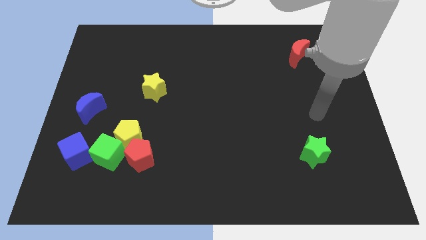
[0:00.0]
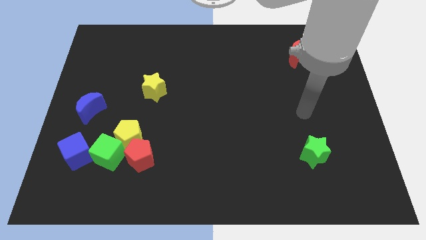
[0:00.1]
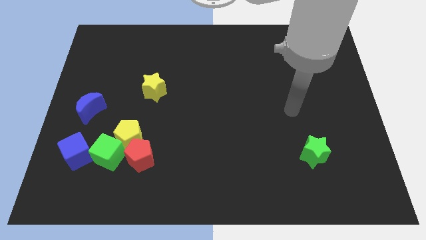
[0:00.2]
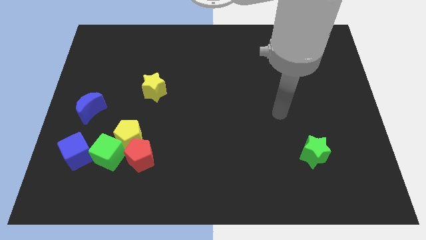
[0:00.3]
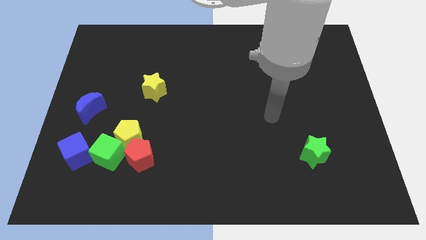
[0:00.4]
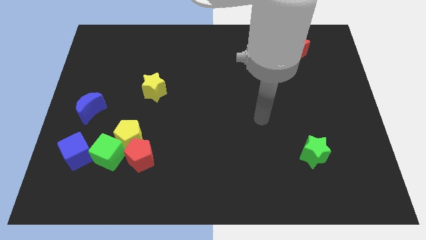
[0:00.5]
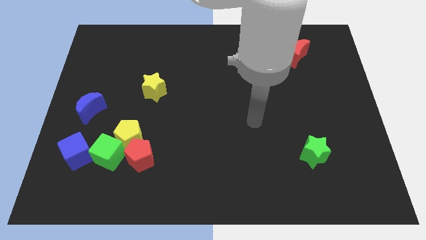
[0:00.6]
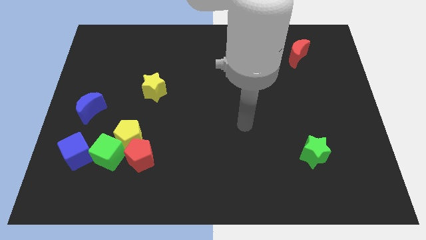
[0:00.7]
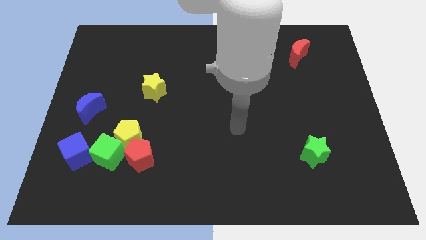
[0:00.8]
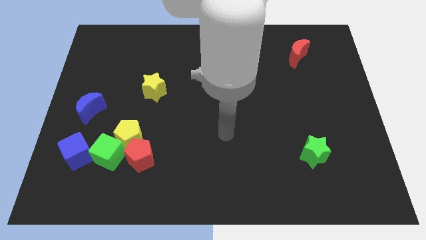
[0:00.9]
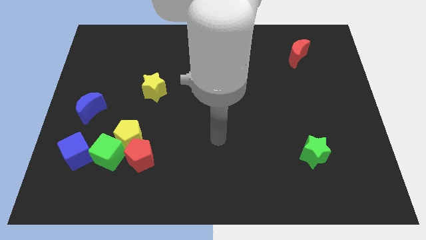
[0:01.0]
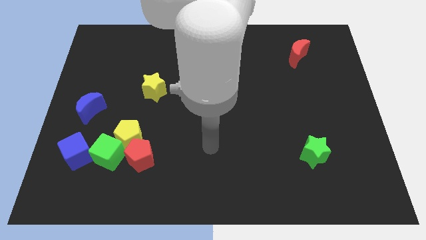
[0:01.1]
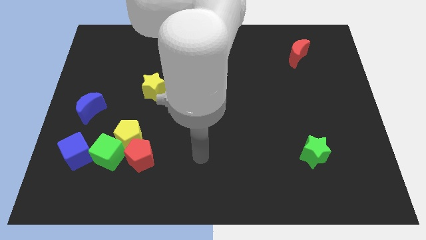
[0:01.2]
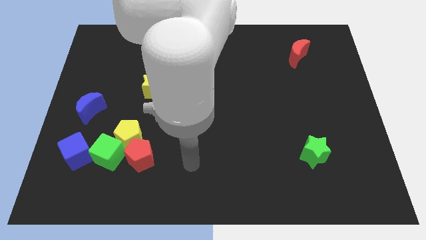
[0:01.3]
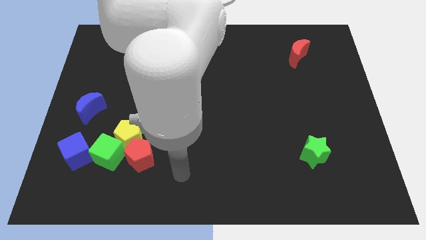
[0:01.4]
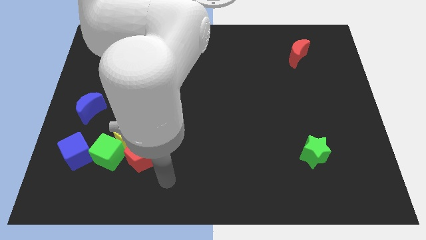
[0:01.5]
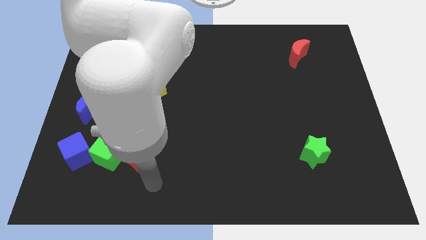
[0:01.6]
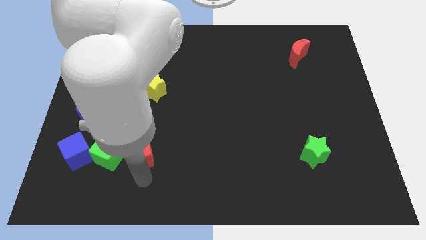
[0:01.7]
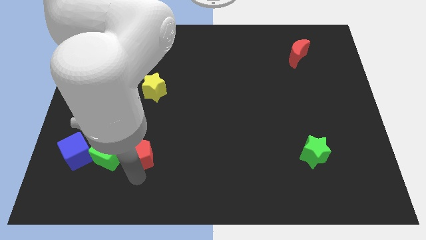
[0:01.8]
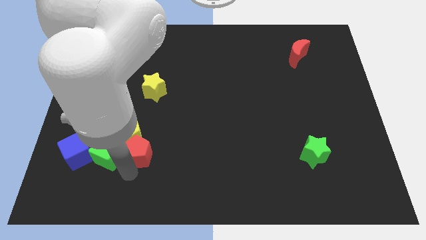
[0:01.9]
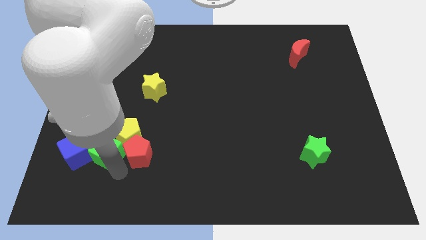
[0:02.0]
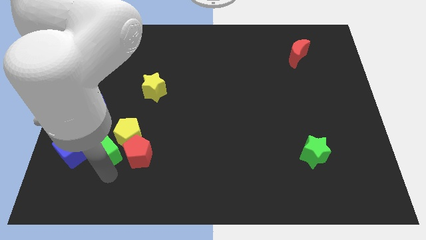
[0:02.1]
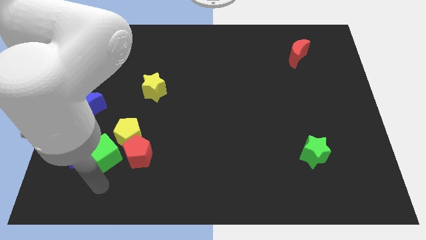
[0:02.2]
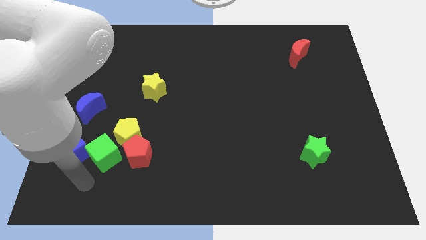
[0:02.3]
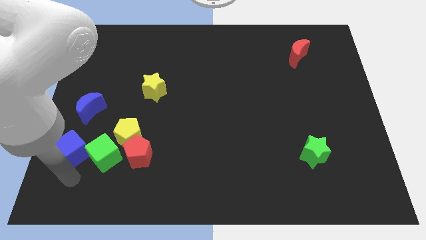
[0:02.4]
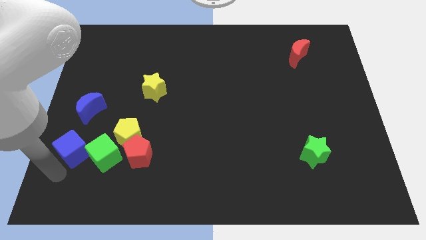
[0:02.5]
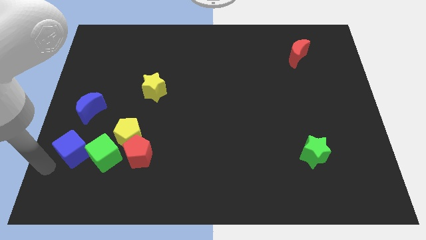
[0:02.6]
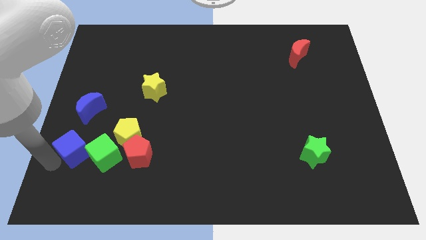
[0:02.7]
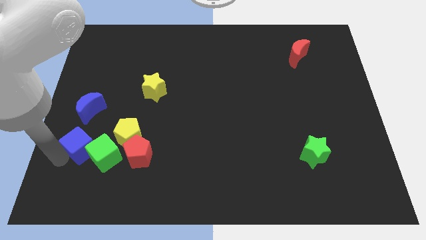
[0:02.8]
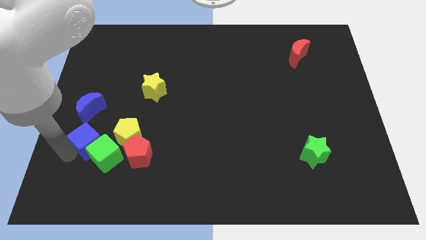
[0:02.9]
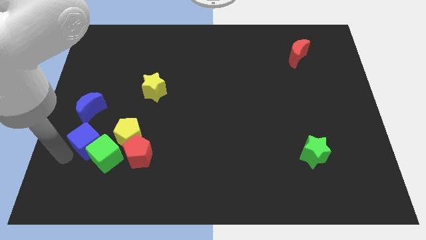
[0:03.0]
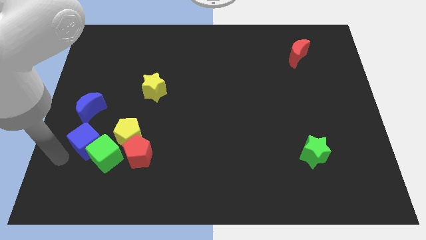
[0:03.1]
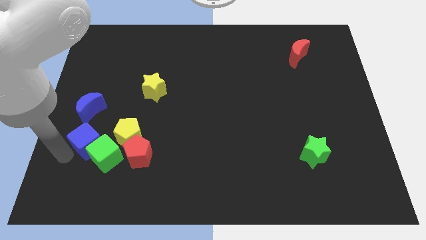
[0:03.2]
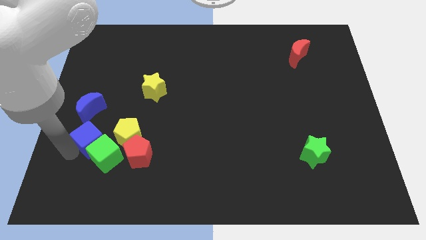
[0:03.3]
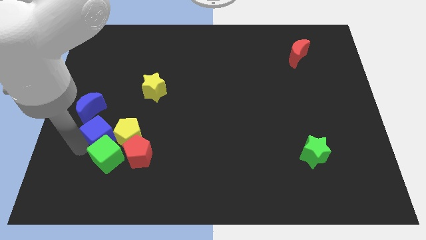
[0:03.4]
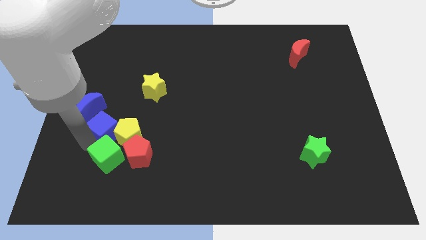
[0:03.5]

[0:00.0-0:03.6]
push the blue cube a little up and to the right

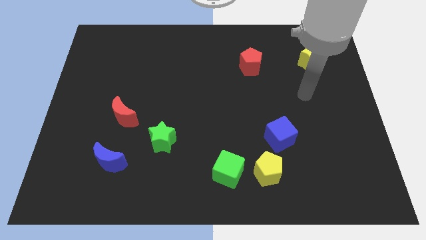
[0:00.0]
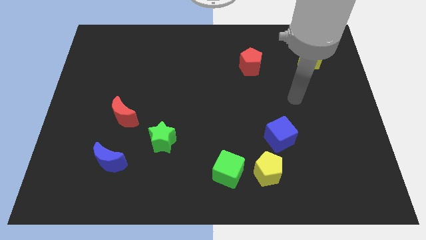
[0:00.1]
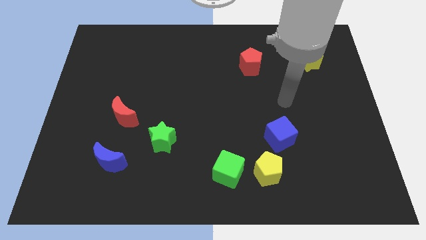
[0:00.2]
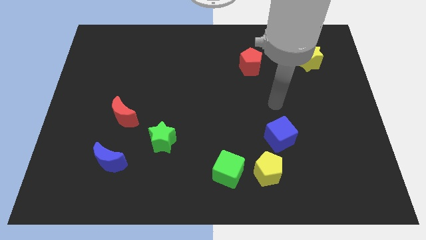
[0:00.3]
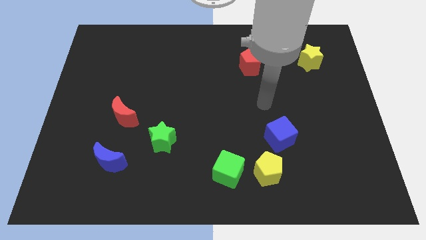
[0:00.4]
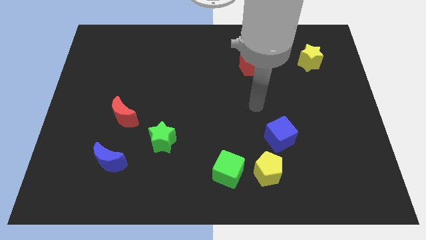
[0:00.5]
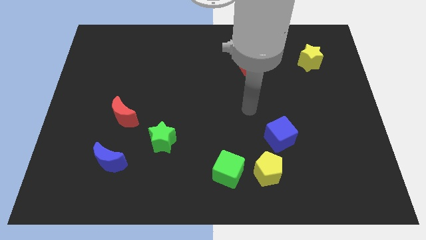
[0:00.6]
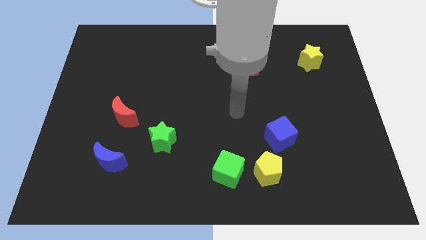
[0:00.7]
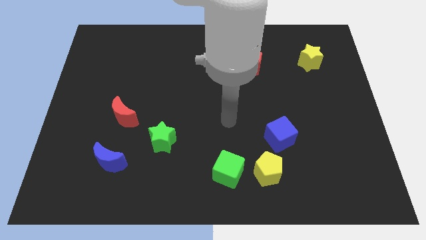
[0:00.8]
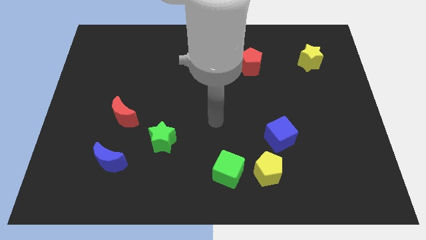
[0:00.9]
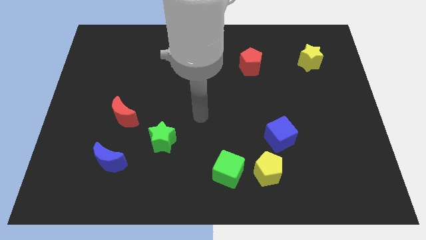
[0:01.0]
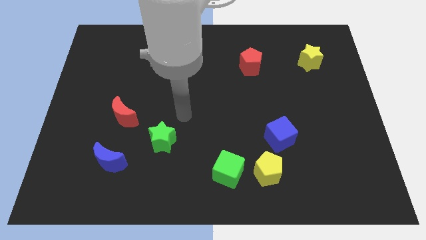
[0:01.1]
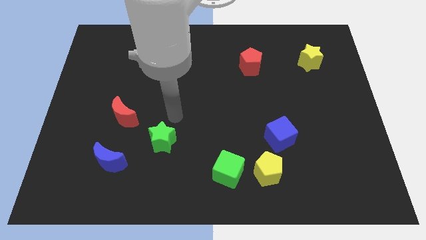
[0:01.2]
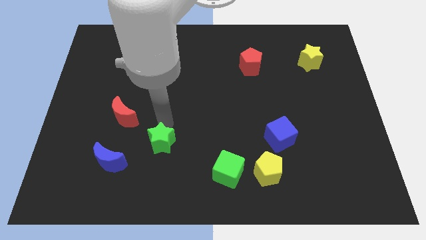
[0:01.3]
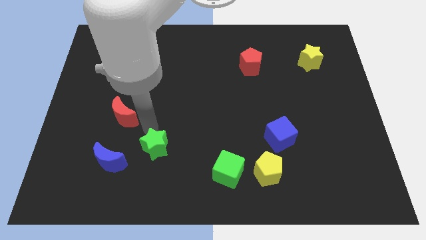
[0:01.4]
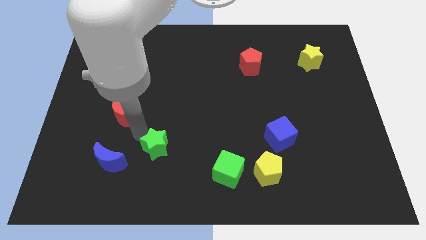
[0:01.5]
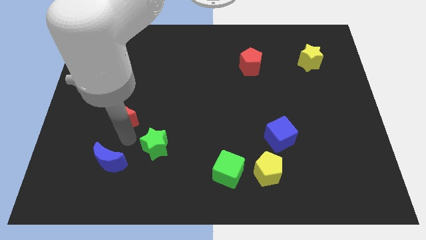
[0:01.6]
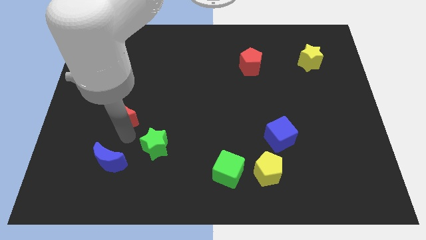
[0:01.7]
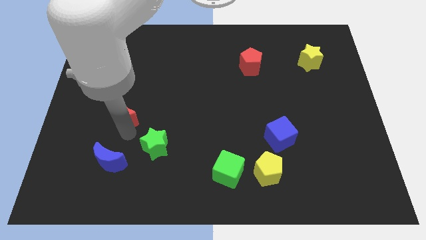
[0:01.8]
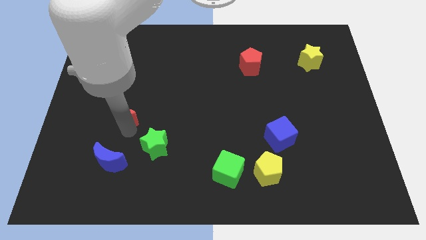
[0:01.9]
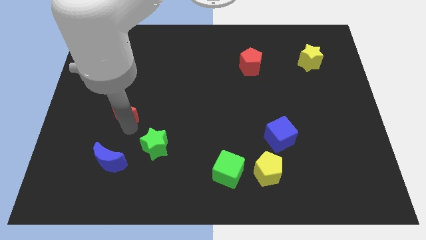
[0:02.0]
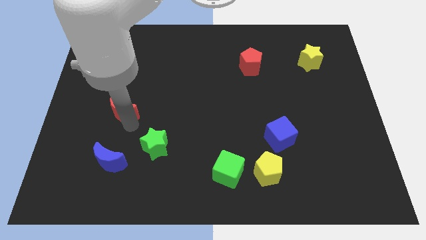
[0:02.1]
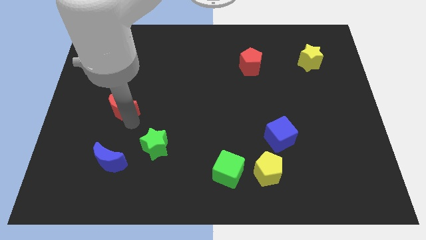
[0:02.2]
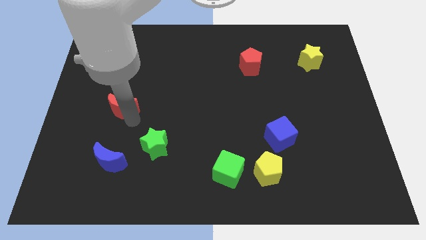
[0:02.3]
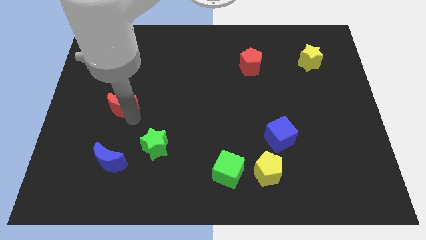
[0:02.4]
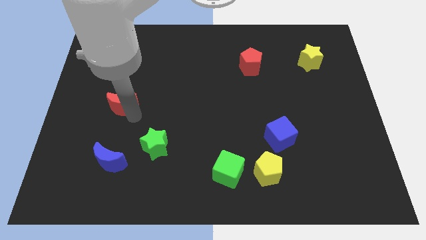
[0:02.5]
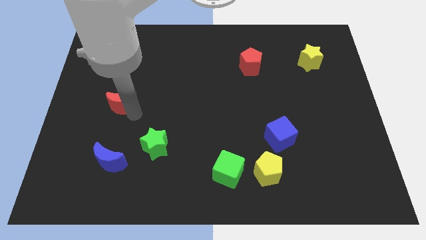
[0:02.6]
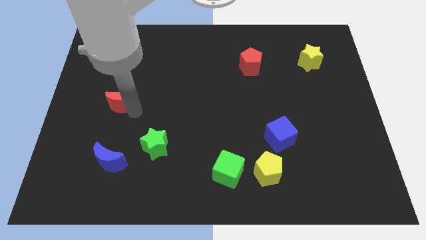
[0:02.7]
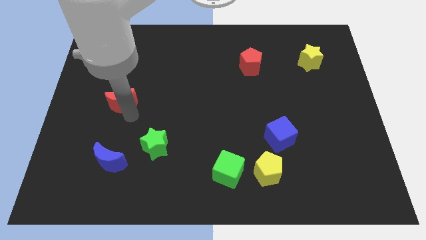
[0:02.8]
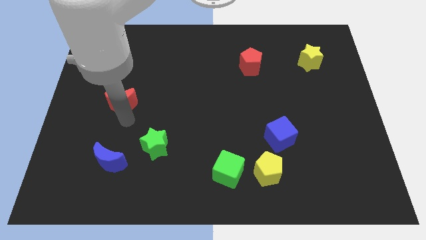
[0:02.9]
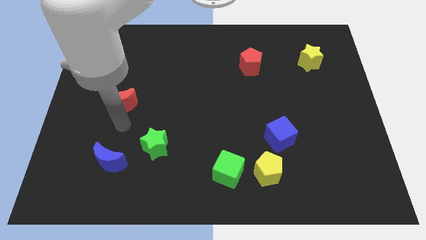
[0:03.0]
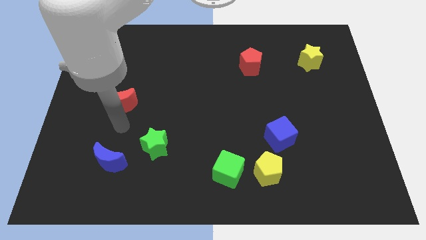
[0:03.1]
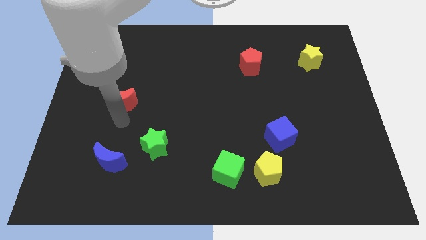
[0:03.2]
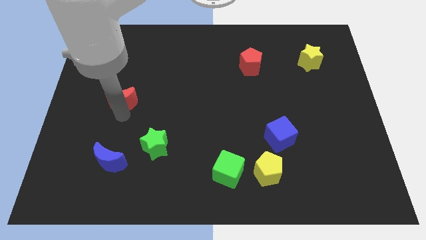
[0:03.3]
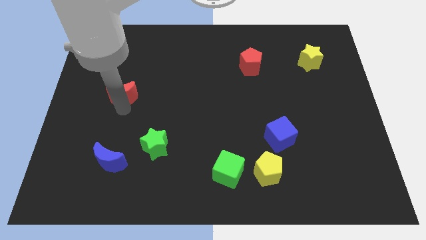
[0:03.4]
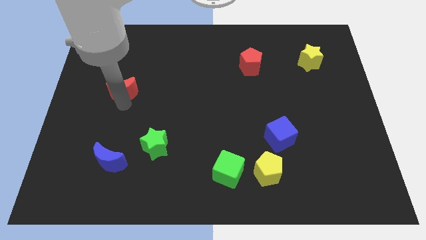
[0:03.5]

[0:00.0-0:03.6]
slightly move the red moon up

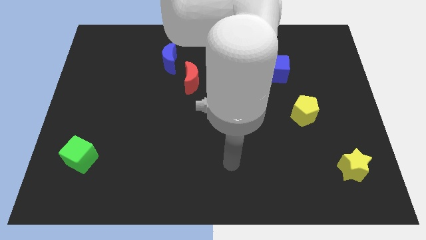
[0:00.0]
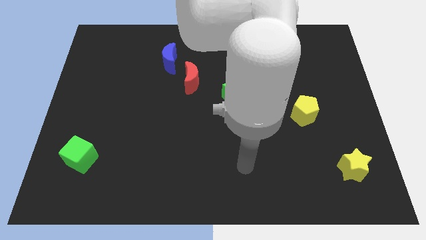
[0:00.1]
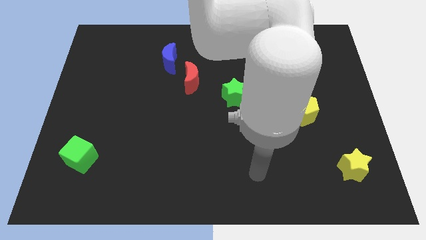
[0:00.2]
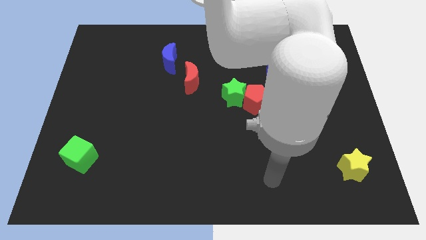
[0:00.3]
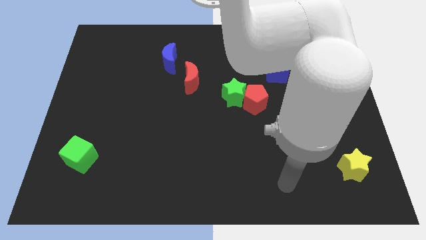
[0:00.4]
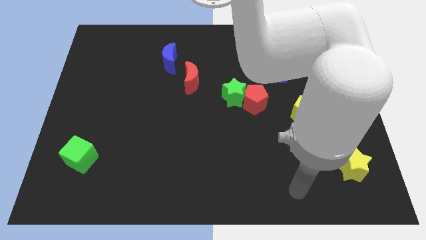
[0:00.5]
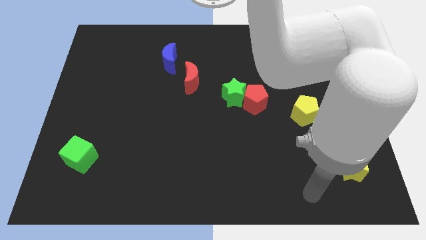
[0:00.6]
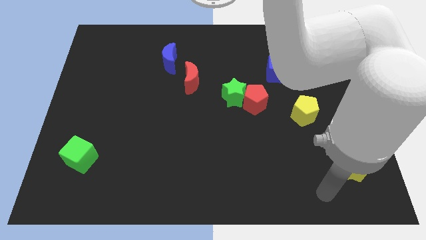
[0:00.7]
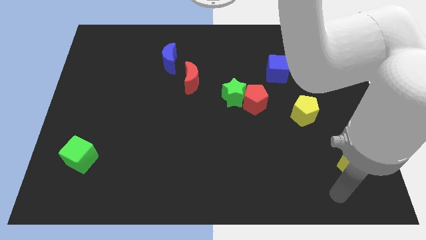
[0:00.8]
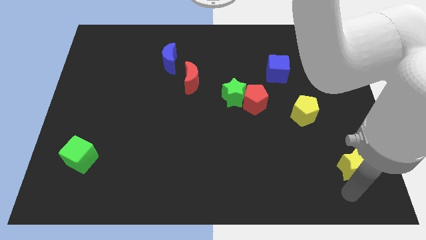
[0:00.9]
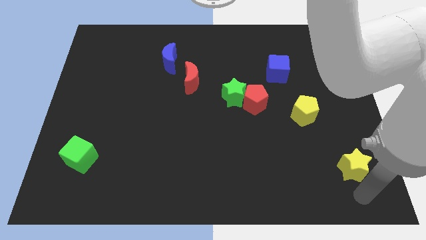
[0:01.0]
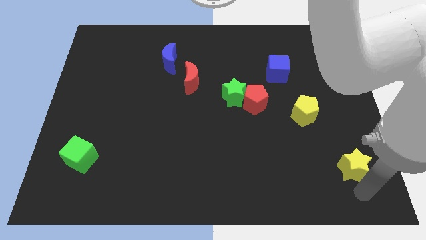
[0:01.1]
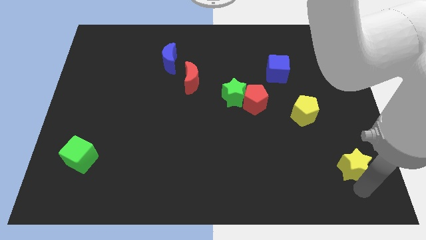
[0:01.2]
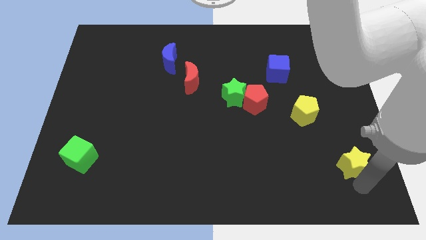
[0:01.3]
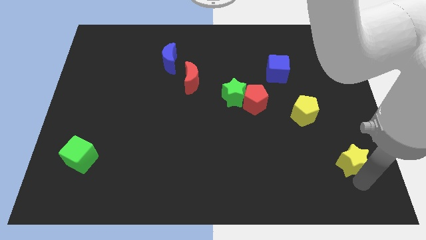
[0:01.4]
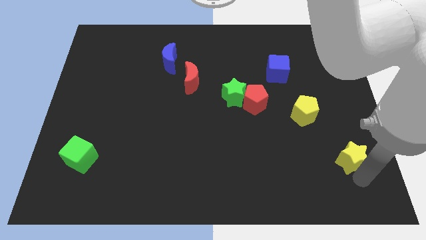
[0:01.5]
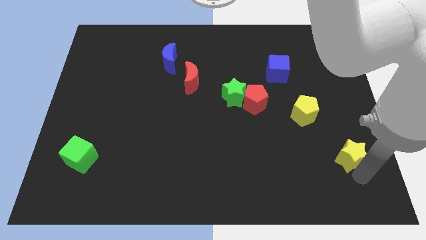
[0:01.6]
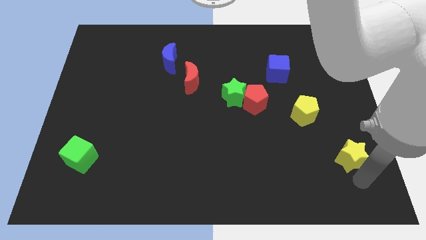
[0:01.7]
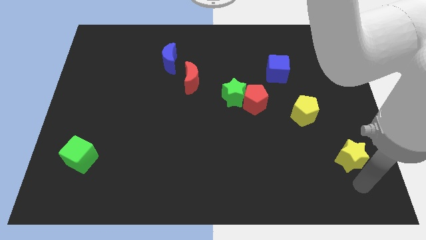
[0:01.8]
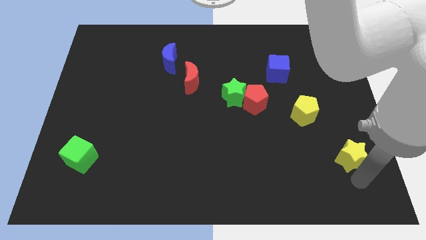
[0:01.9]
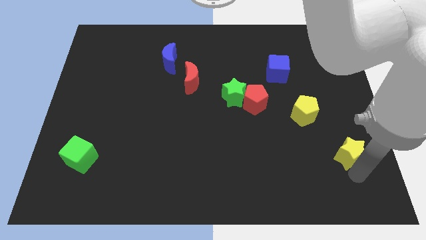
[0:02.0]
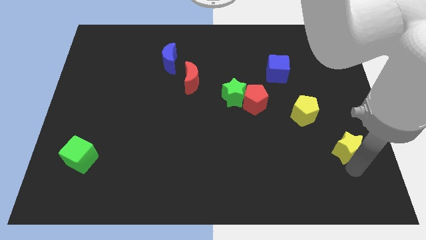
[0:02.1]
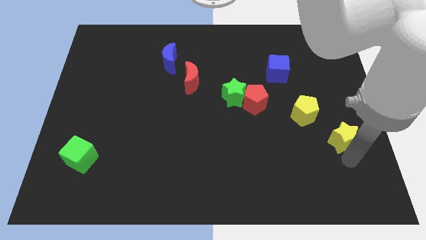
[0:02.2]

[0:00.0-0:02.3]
push the yellow star upwards somewhat
